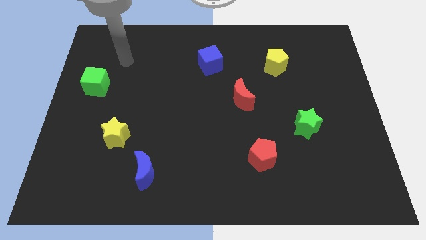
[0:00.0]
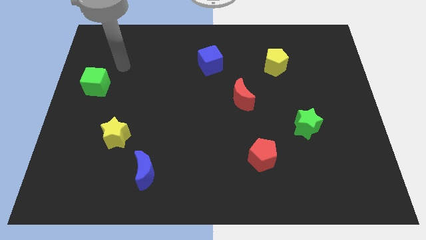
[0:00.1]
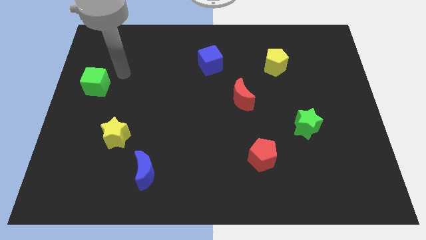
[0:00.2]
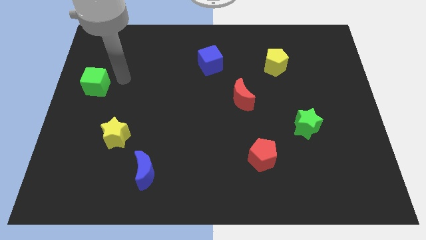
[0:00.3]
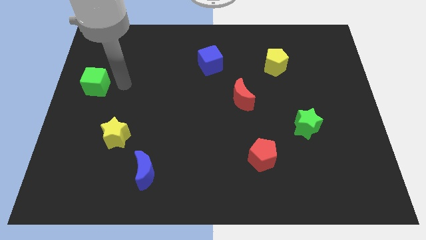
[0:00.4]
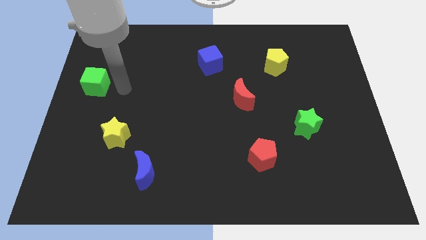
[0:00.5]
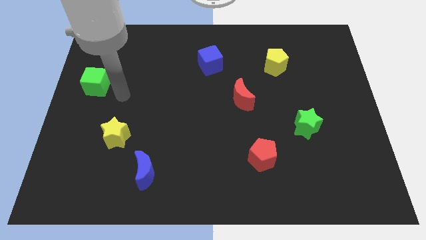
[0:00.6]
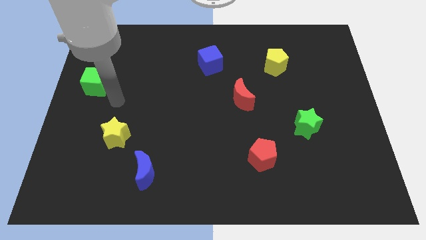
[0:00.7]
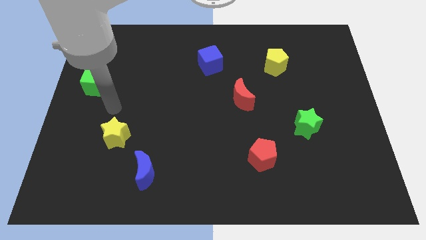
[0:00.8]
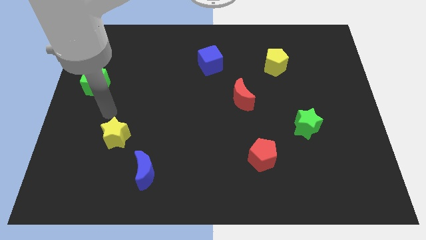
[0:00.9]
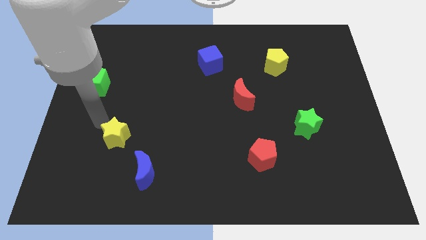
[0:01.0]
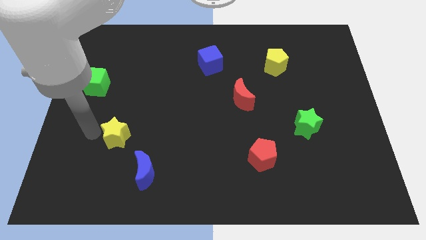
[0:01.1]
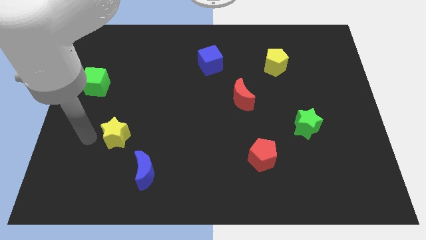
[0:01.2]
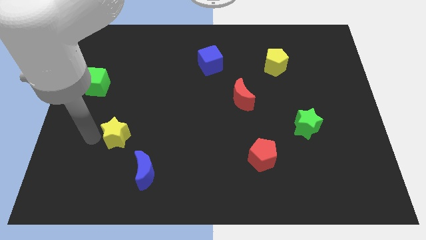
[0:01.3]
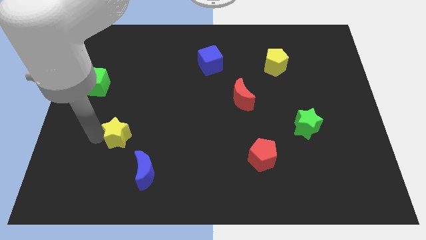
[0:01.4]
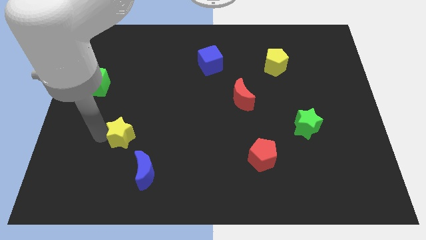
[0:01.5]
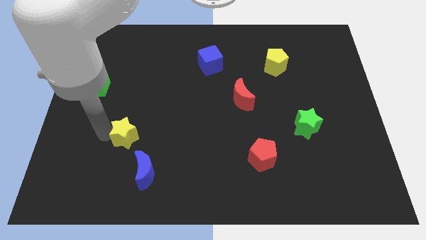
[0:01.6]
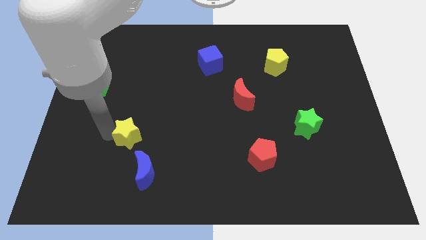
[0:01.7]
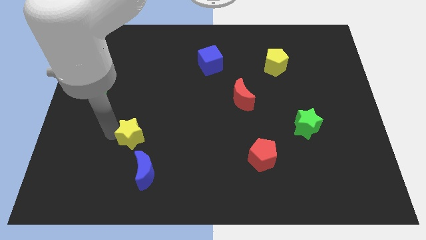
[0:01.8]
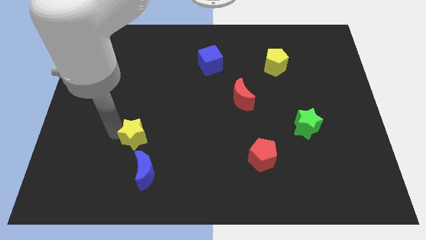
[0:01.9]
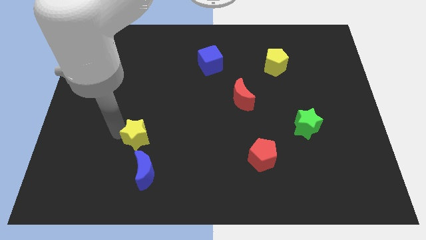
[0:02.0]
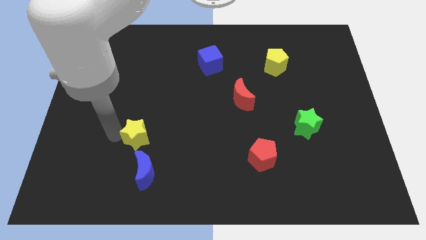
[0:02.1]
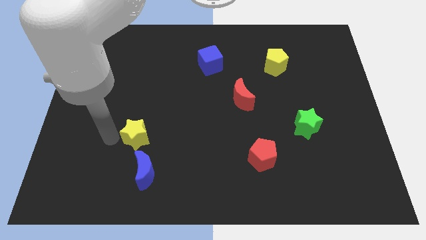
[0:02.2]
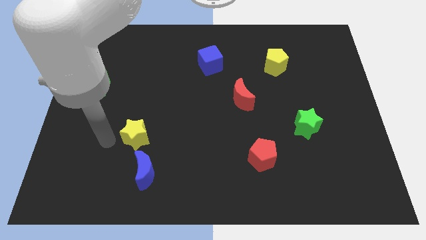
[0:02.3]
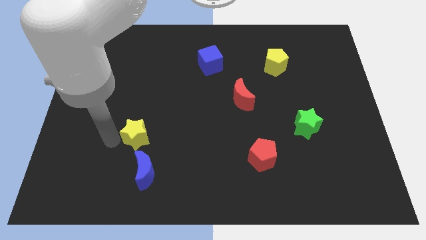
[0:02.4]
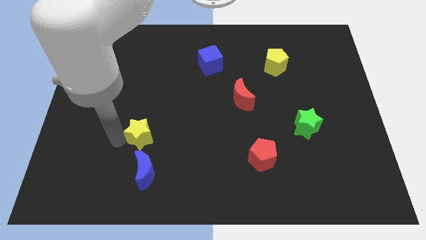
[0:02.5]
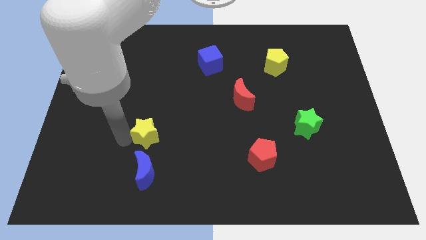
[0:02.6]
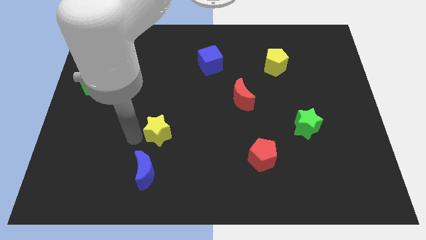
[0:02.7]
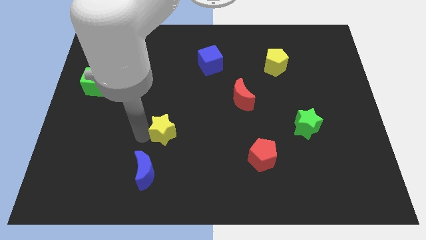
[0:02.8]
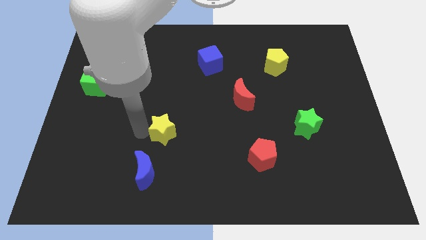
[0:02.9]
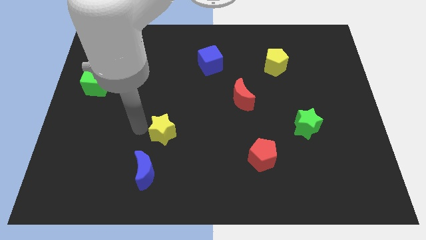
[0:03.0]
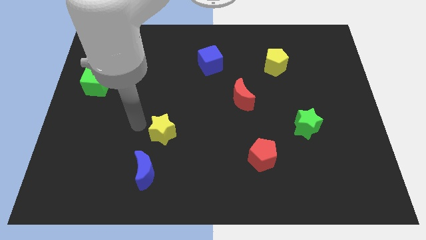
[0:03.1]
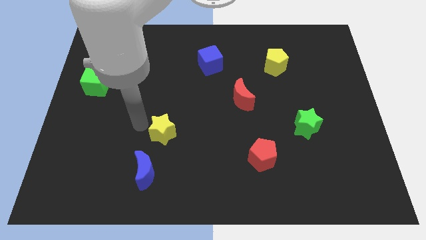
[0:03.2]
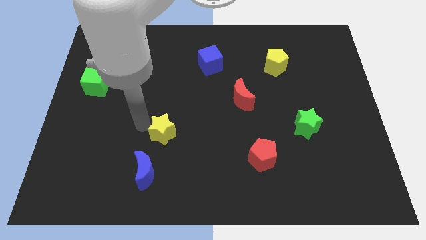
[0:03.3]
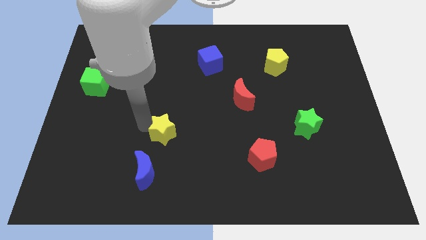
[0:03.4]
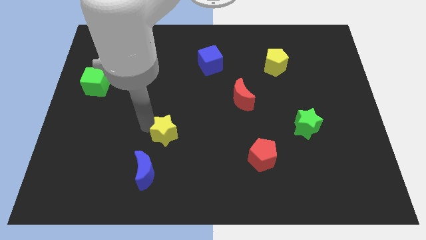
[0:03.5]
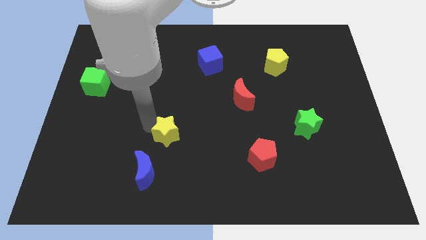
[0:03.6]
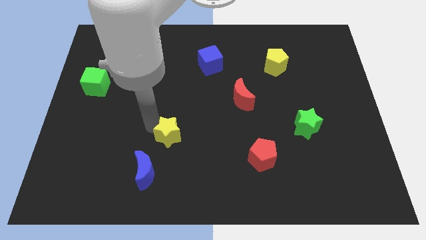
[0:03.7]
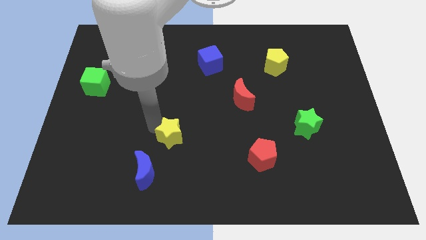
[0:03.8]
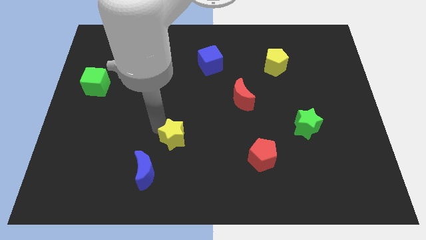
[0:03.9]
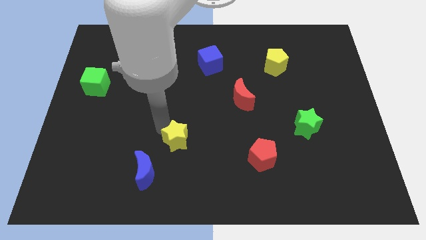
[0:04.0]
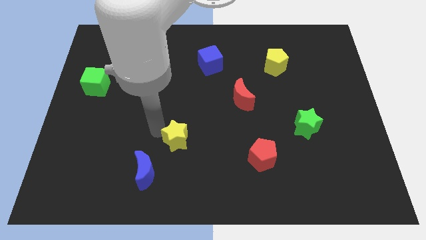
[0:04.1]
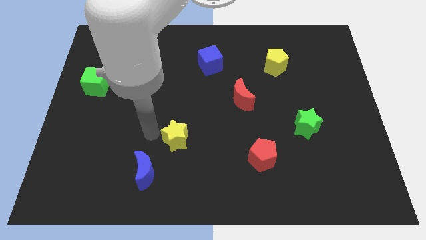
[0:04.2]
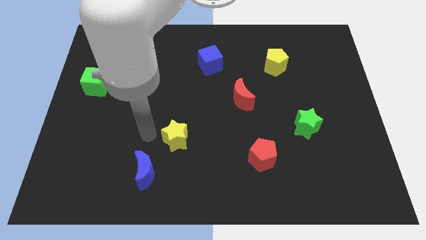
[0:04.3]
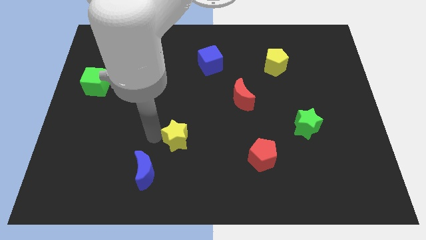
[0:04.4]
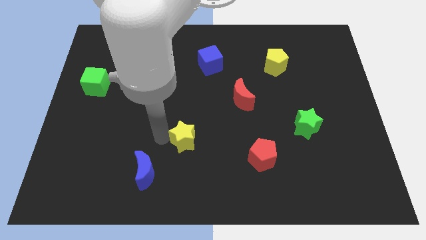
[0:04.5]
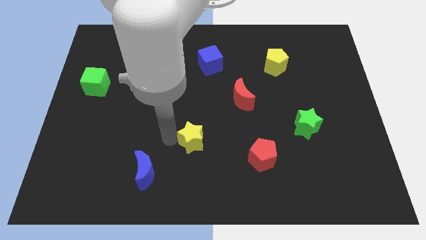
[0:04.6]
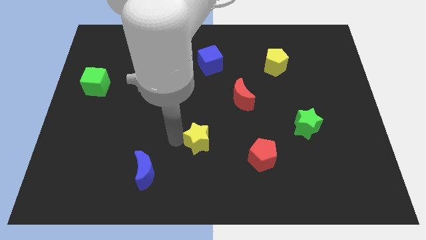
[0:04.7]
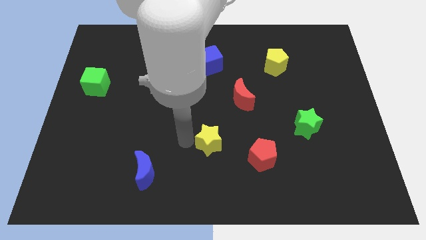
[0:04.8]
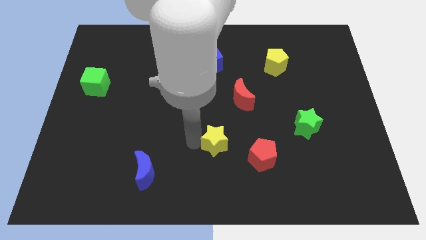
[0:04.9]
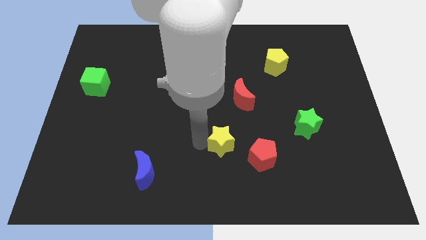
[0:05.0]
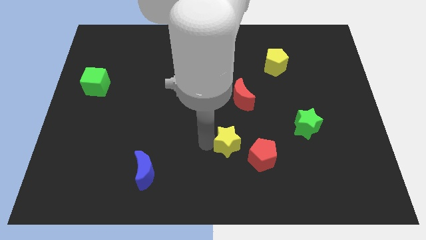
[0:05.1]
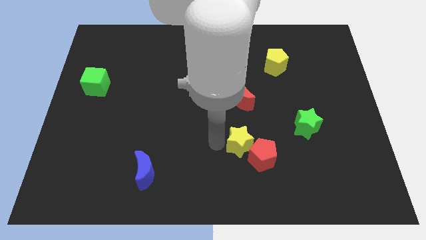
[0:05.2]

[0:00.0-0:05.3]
put the yellow star close to the red pentagon

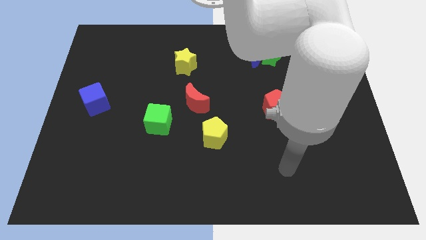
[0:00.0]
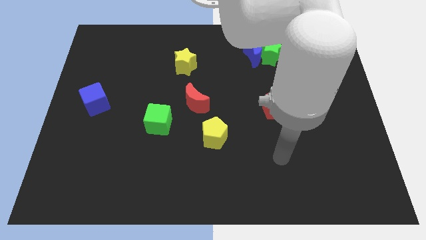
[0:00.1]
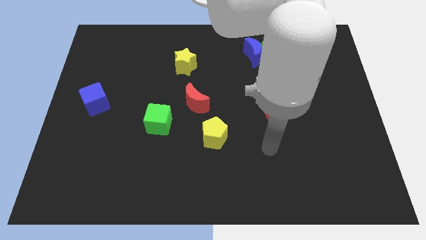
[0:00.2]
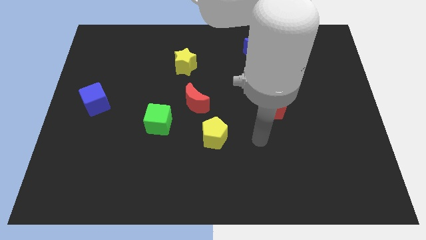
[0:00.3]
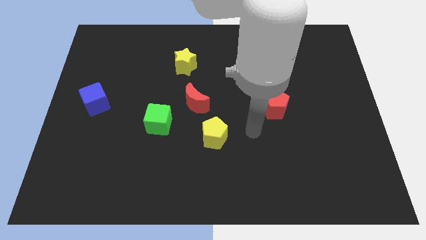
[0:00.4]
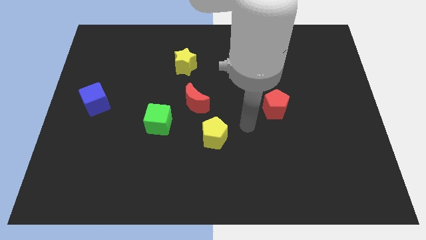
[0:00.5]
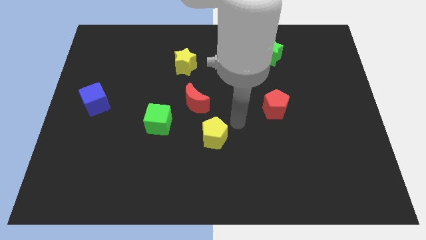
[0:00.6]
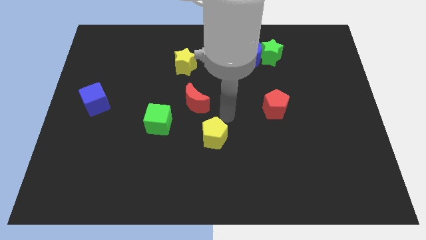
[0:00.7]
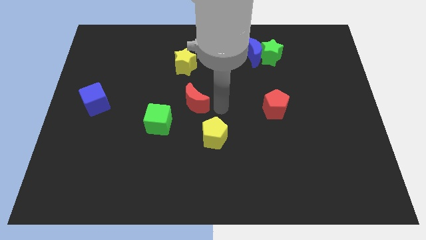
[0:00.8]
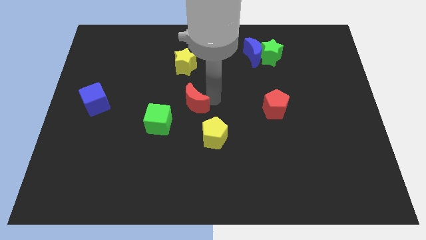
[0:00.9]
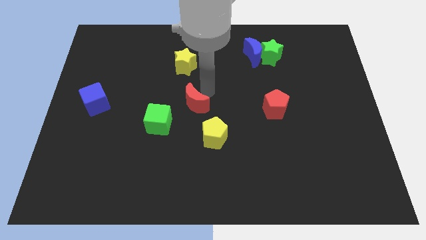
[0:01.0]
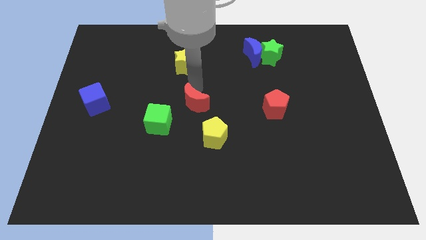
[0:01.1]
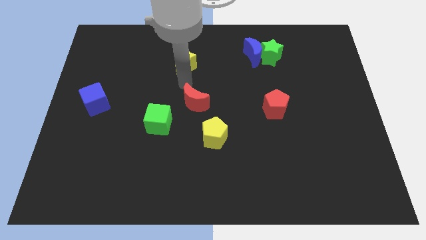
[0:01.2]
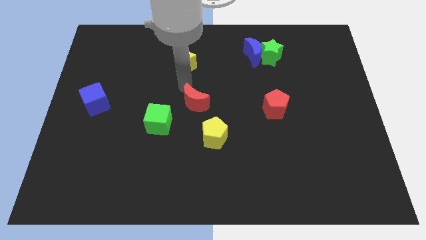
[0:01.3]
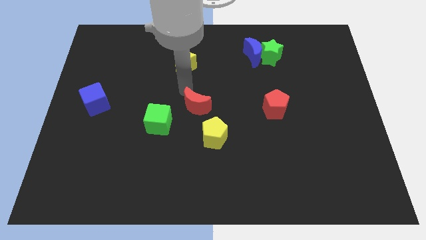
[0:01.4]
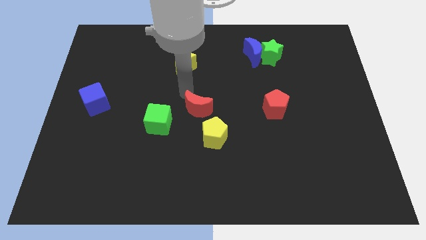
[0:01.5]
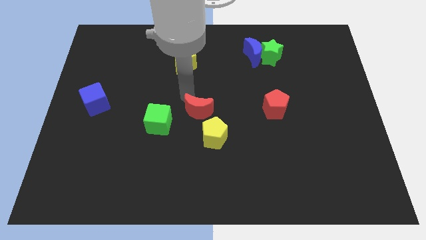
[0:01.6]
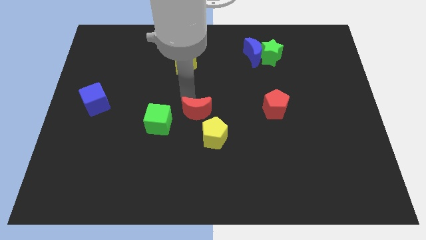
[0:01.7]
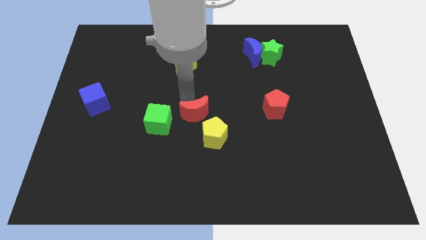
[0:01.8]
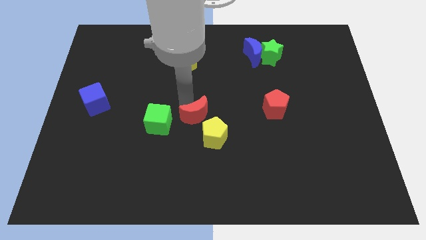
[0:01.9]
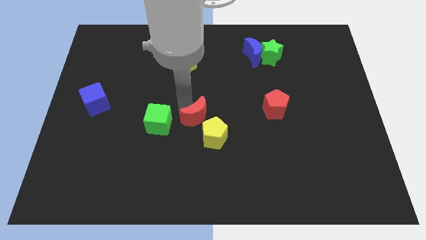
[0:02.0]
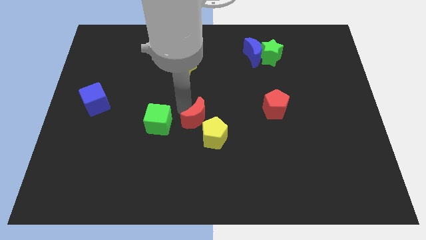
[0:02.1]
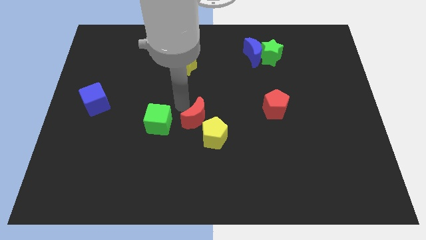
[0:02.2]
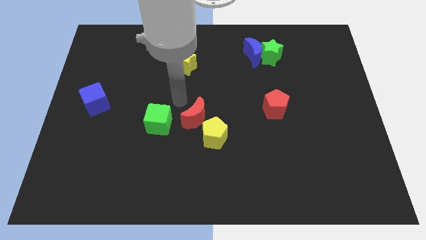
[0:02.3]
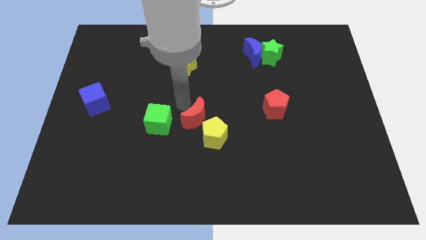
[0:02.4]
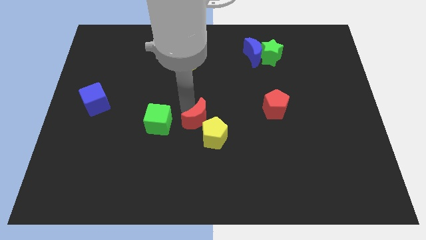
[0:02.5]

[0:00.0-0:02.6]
move the red moon towards the yellow pentagon
